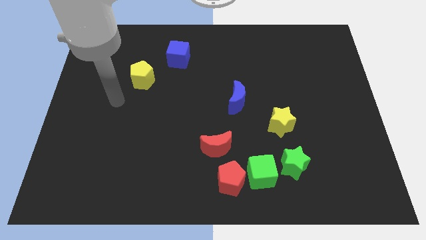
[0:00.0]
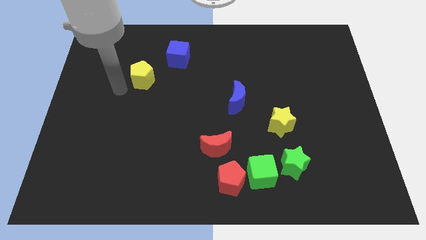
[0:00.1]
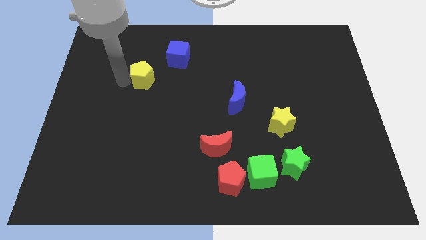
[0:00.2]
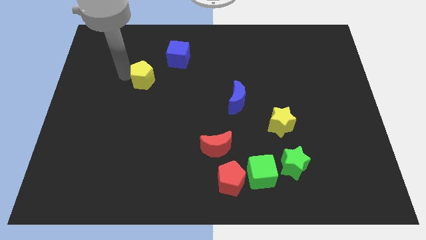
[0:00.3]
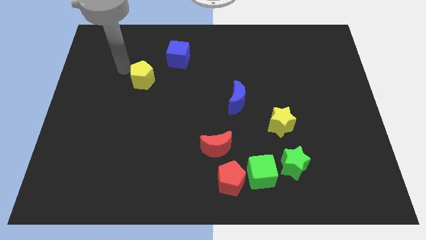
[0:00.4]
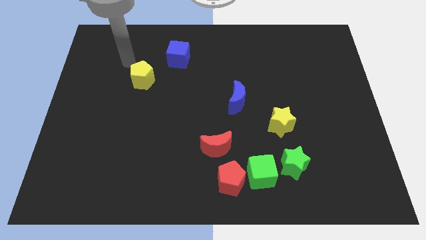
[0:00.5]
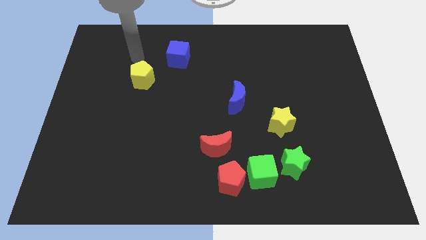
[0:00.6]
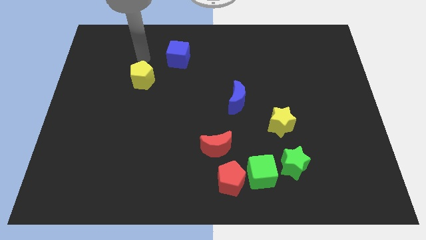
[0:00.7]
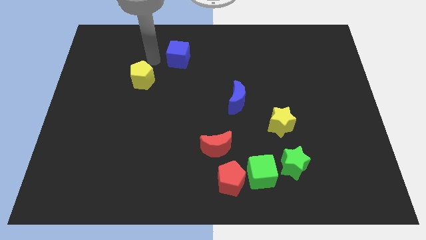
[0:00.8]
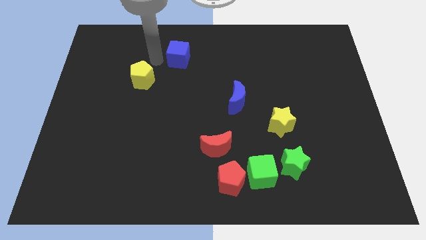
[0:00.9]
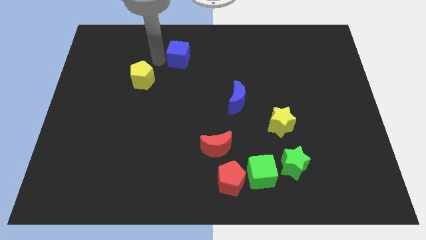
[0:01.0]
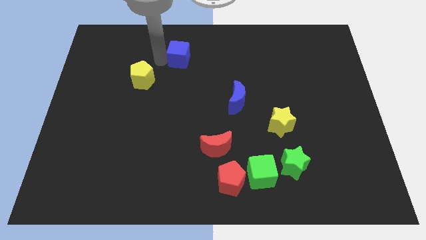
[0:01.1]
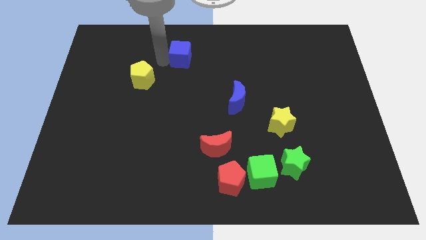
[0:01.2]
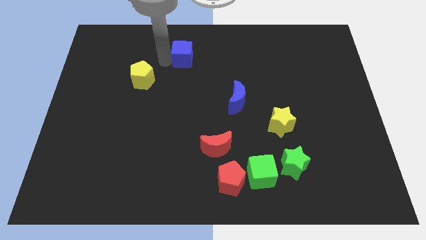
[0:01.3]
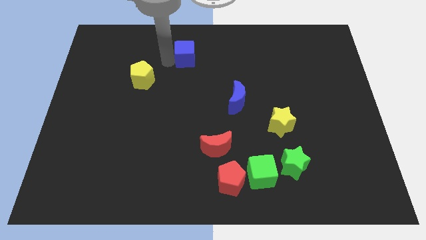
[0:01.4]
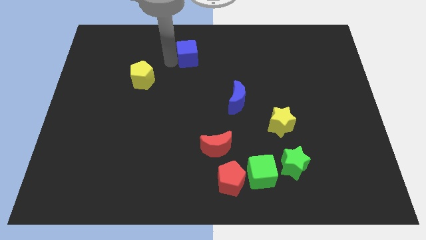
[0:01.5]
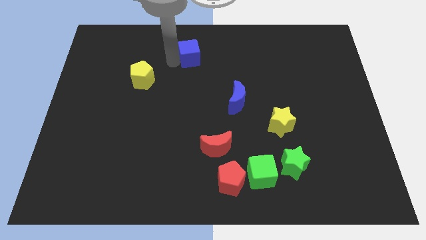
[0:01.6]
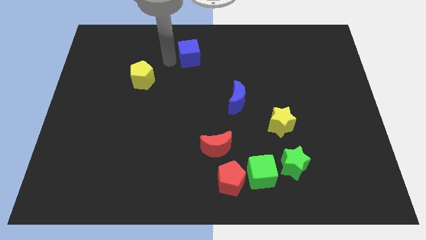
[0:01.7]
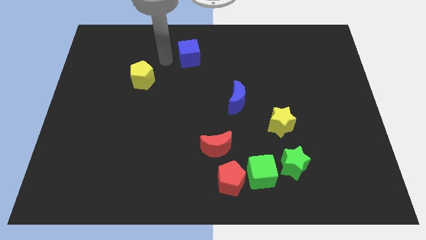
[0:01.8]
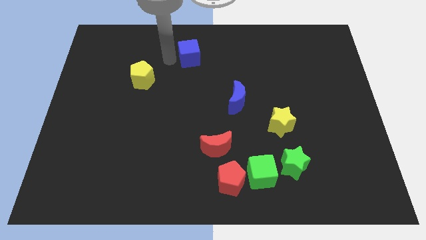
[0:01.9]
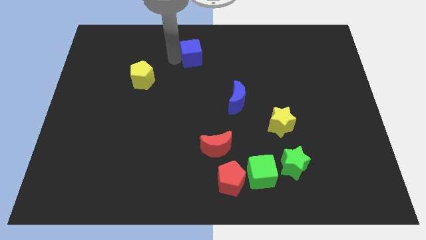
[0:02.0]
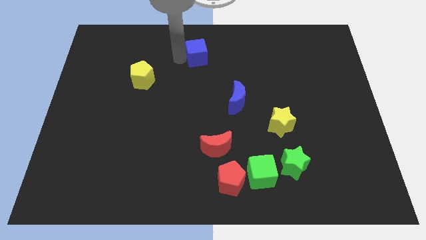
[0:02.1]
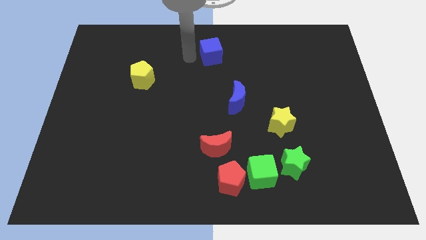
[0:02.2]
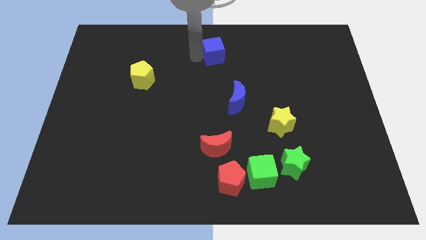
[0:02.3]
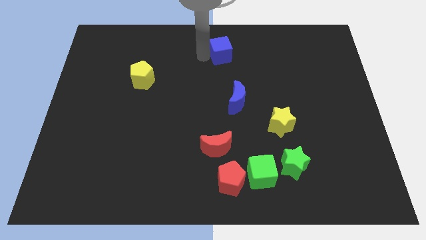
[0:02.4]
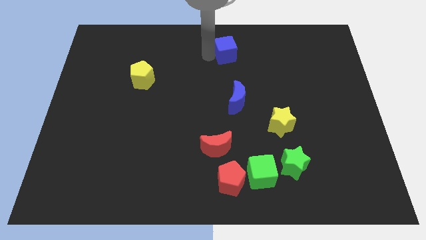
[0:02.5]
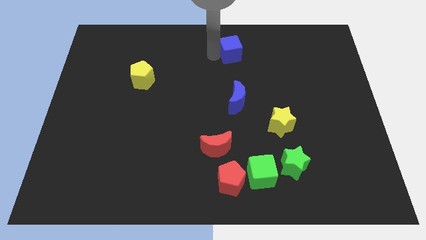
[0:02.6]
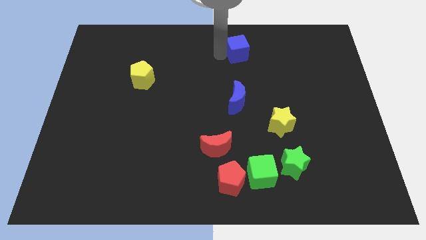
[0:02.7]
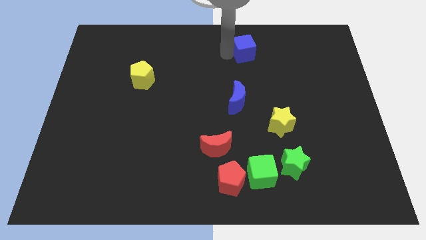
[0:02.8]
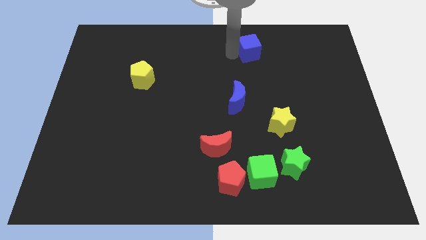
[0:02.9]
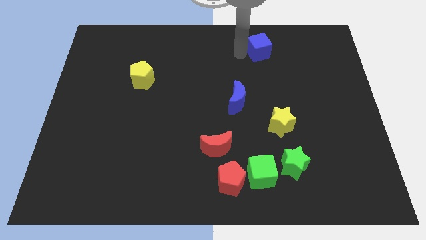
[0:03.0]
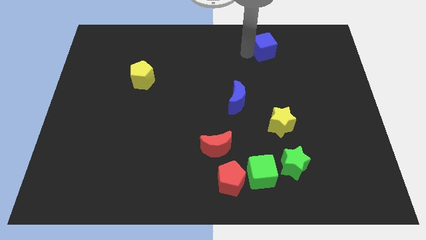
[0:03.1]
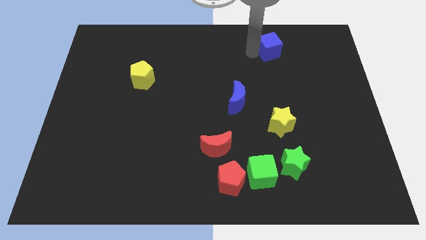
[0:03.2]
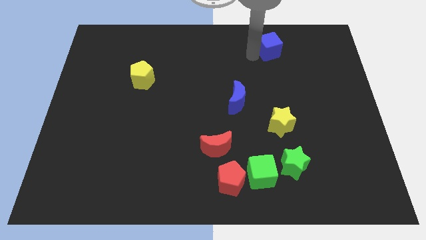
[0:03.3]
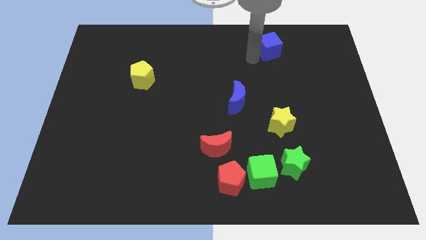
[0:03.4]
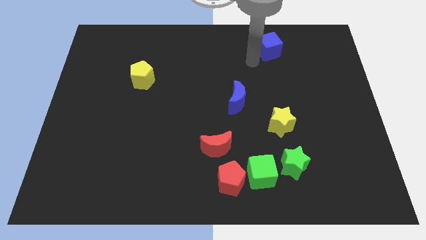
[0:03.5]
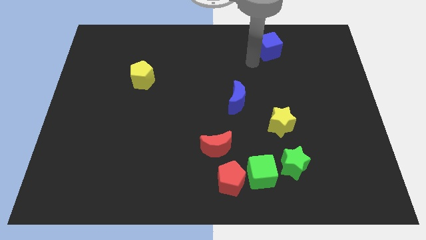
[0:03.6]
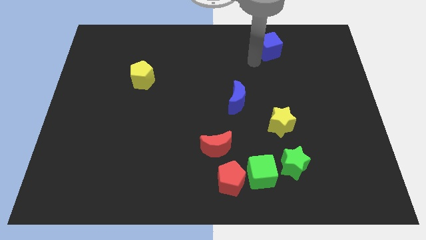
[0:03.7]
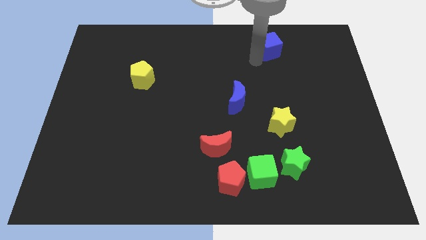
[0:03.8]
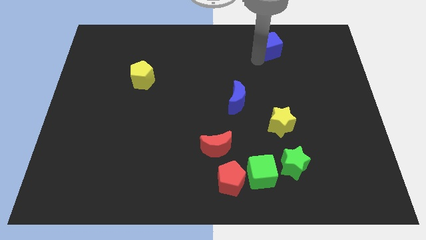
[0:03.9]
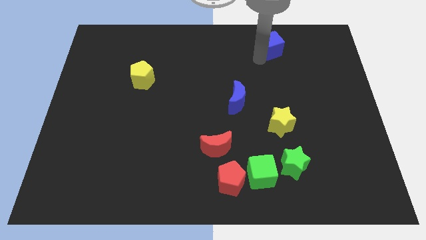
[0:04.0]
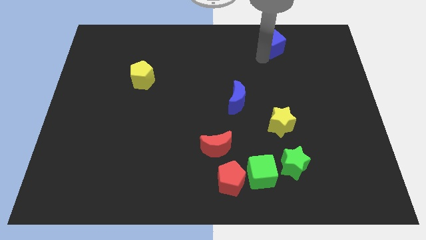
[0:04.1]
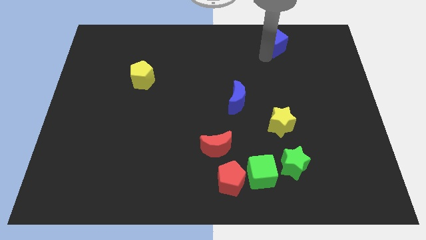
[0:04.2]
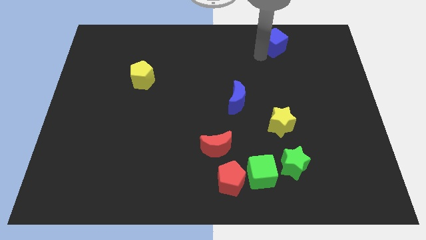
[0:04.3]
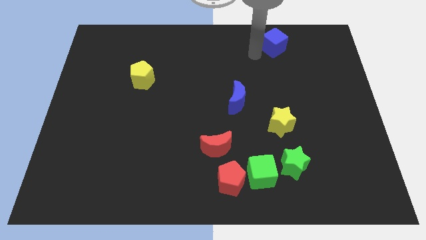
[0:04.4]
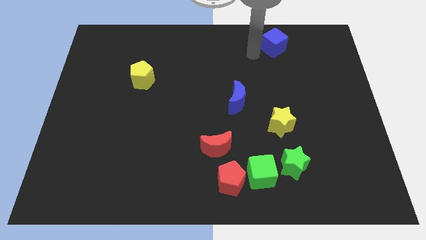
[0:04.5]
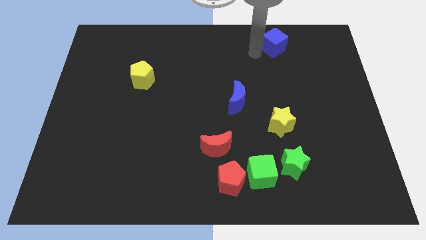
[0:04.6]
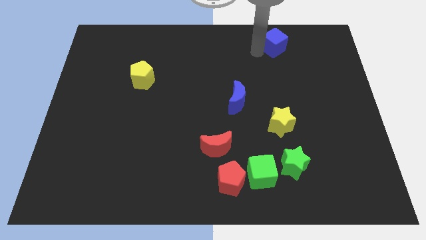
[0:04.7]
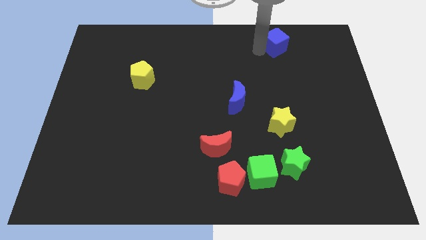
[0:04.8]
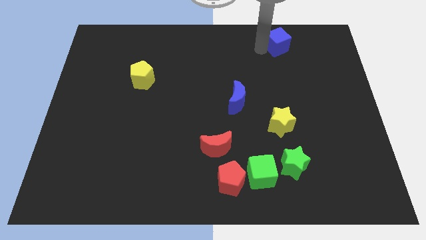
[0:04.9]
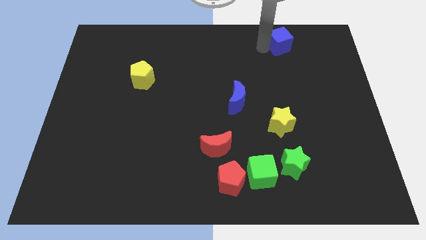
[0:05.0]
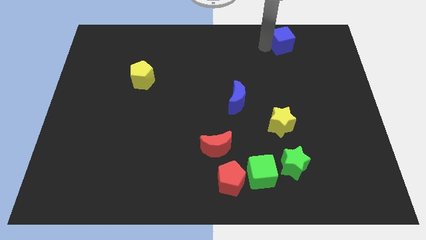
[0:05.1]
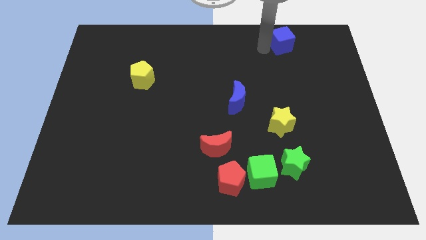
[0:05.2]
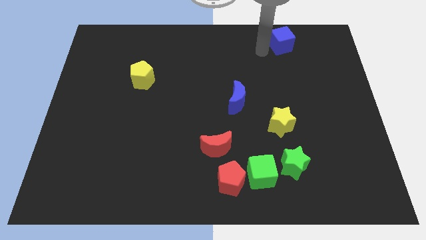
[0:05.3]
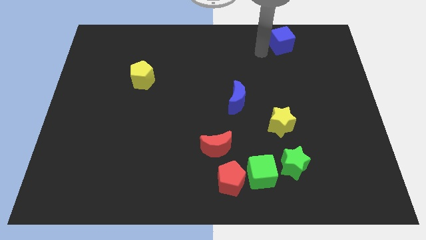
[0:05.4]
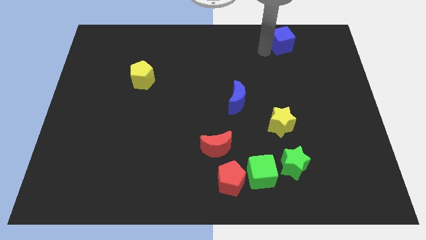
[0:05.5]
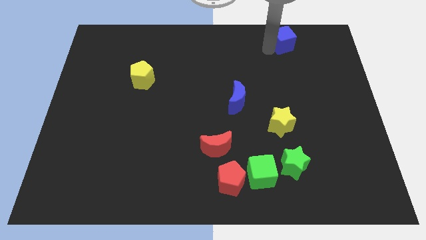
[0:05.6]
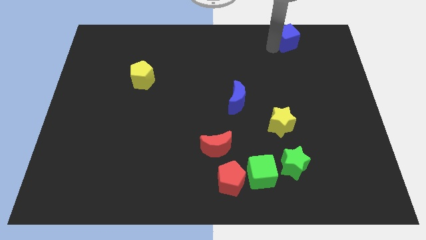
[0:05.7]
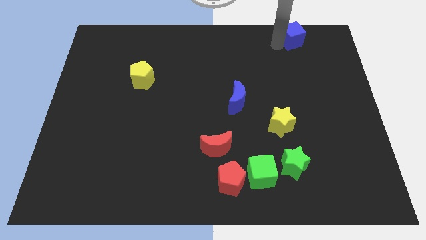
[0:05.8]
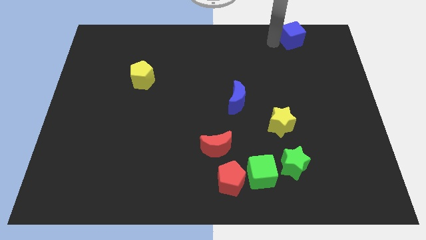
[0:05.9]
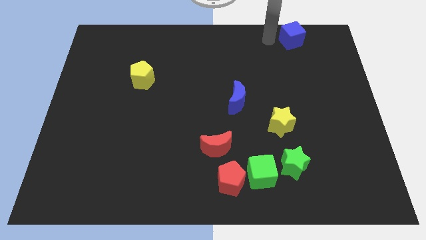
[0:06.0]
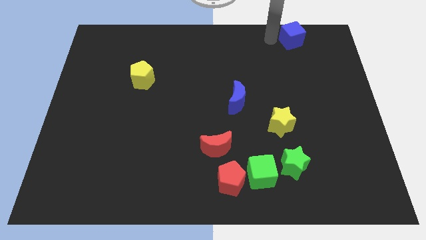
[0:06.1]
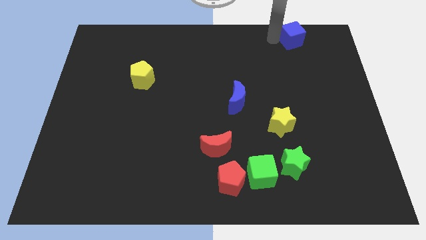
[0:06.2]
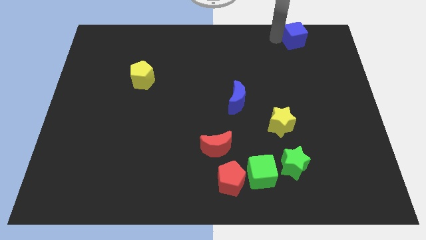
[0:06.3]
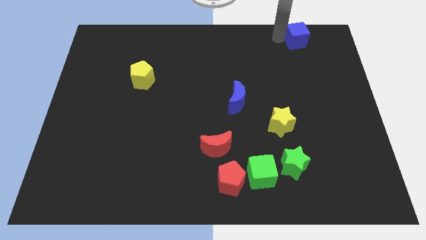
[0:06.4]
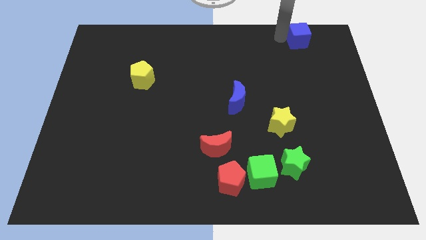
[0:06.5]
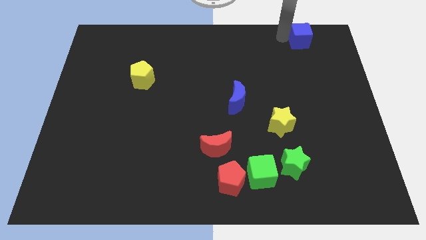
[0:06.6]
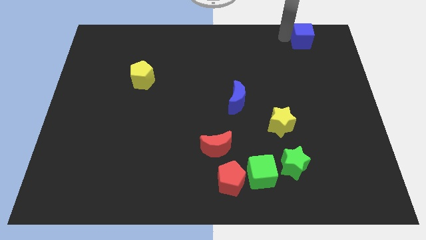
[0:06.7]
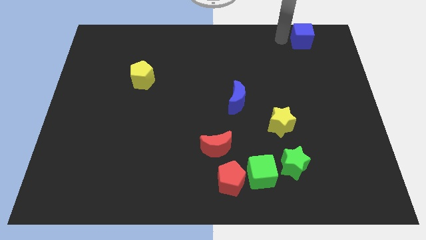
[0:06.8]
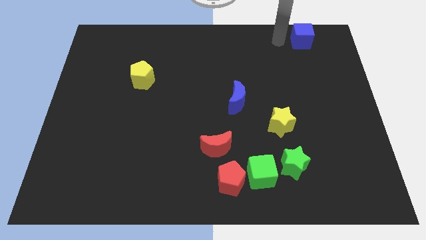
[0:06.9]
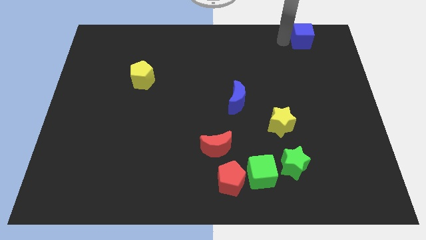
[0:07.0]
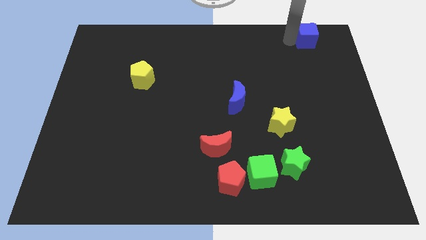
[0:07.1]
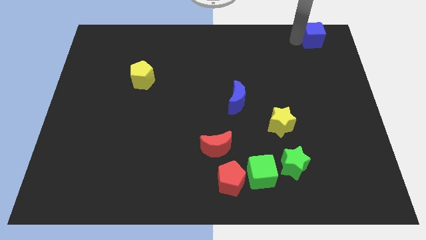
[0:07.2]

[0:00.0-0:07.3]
push the blue cube to the top right corner

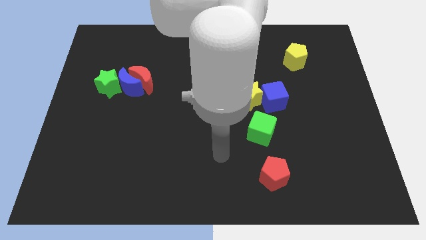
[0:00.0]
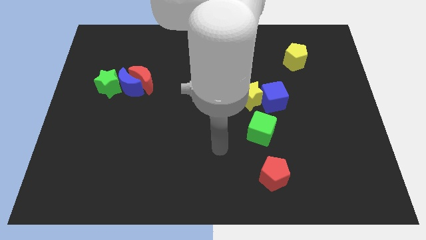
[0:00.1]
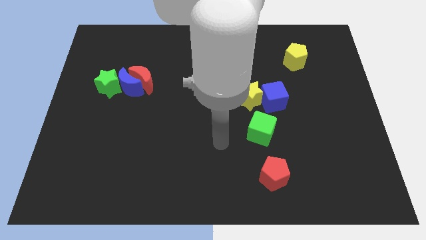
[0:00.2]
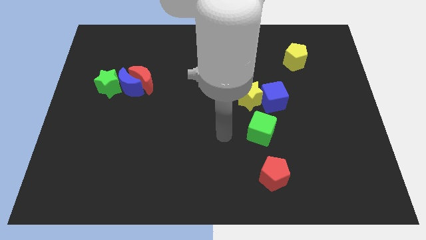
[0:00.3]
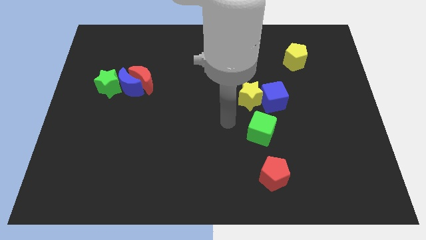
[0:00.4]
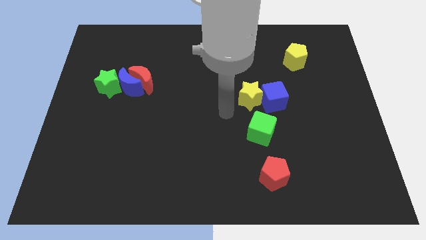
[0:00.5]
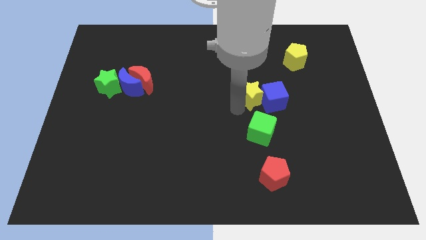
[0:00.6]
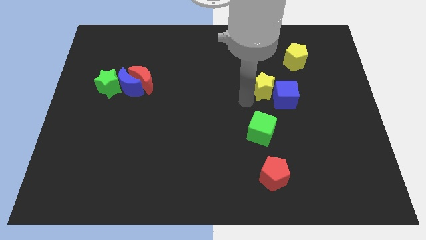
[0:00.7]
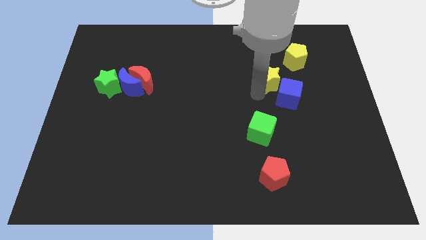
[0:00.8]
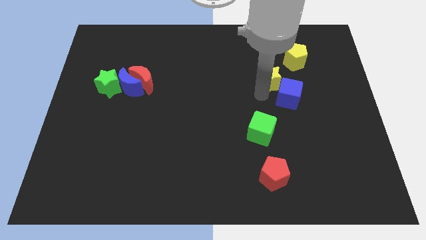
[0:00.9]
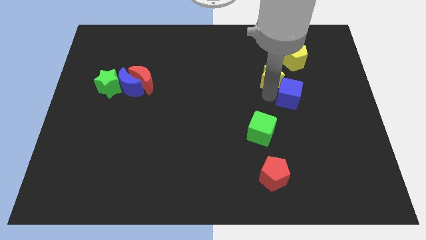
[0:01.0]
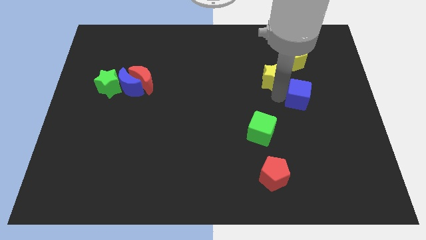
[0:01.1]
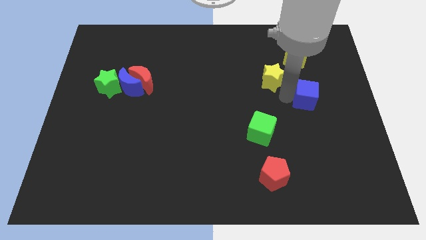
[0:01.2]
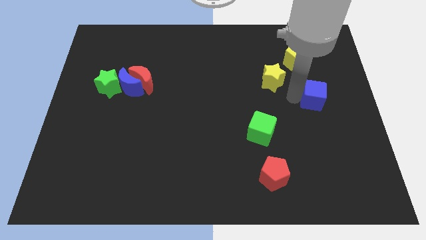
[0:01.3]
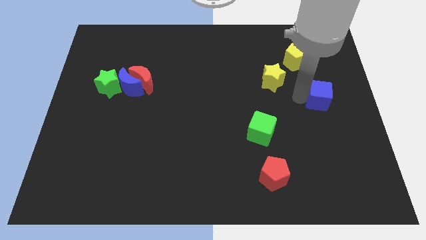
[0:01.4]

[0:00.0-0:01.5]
push the blue cube to the right side of the board
